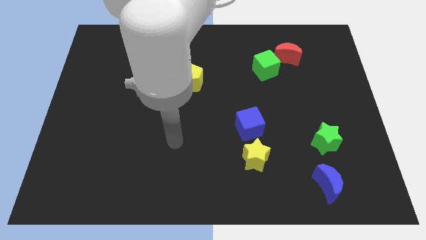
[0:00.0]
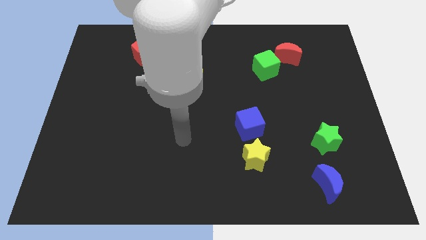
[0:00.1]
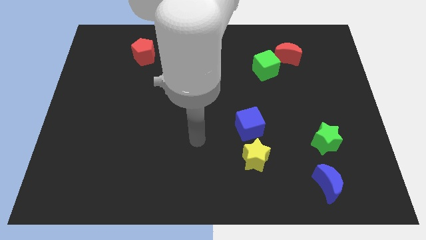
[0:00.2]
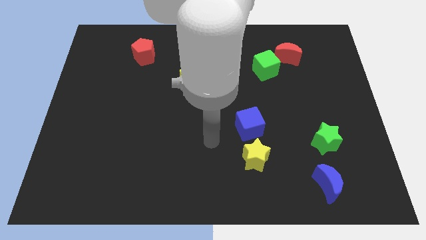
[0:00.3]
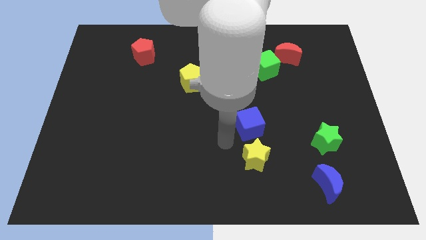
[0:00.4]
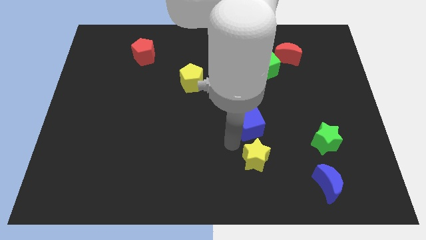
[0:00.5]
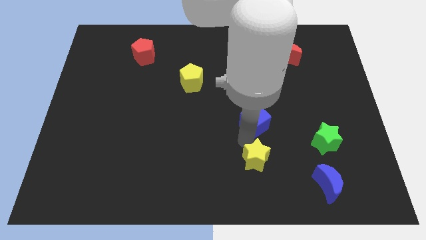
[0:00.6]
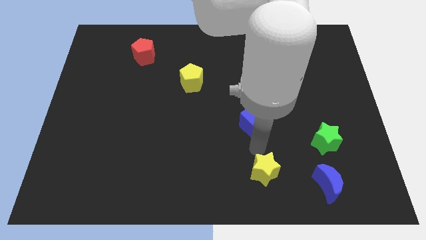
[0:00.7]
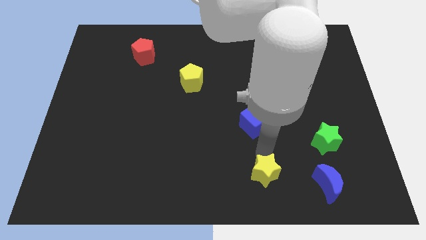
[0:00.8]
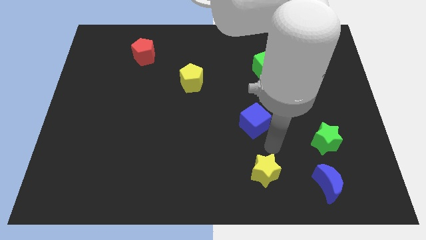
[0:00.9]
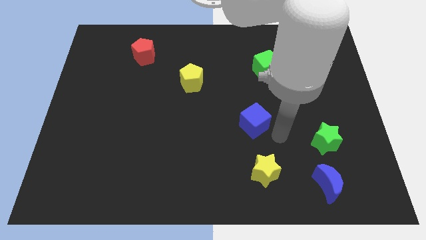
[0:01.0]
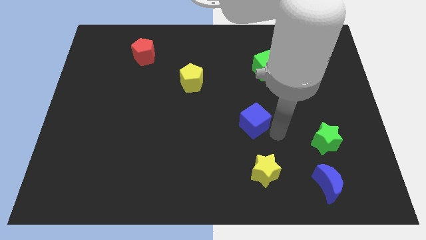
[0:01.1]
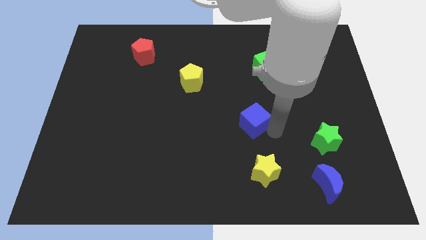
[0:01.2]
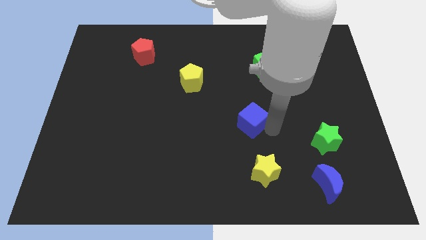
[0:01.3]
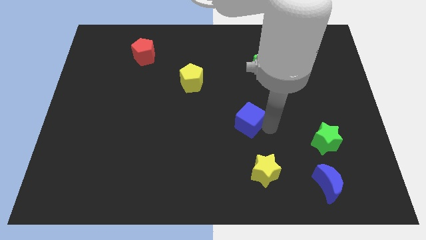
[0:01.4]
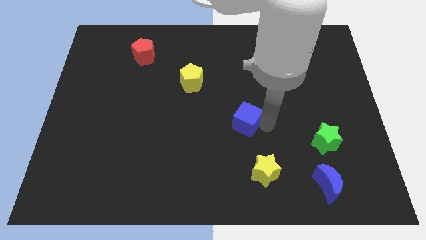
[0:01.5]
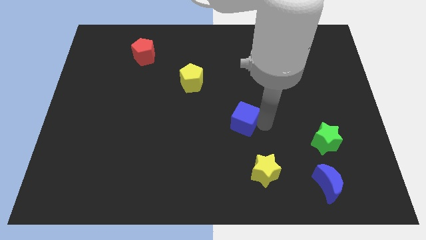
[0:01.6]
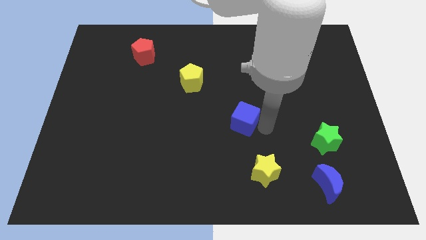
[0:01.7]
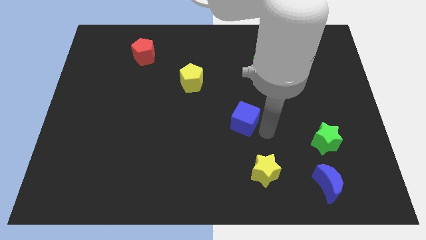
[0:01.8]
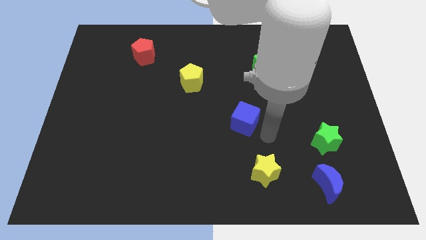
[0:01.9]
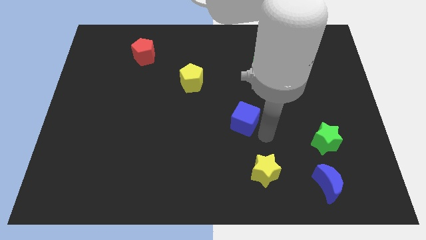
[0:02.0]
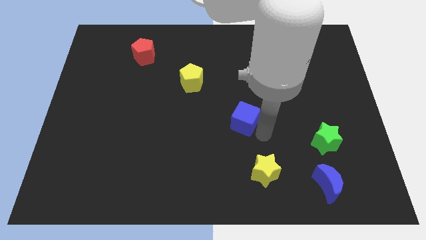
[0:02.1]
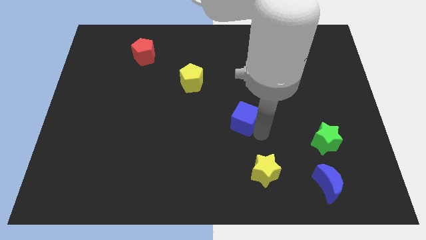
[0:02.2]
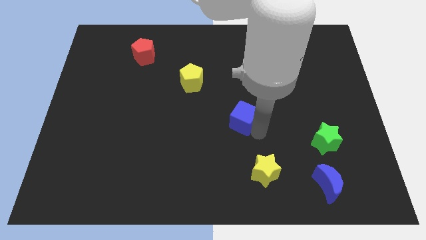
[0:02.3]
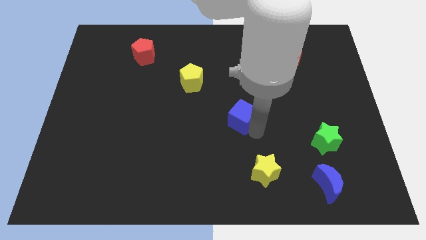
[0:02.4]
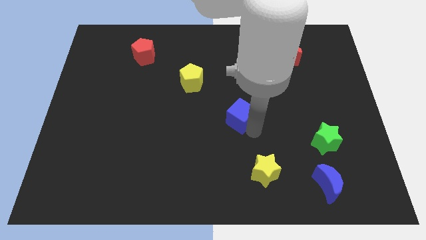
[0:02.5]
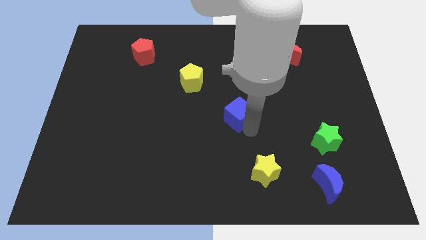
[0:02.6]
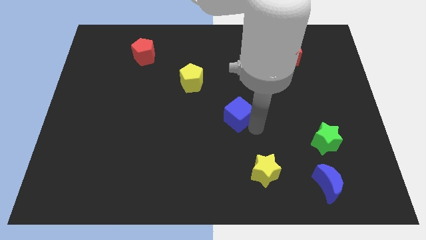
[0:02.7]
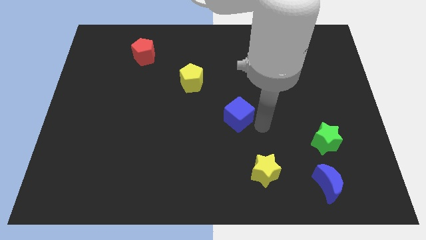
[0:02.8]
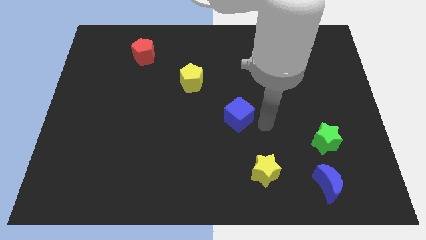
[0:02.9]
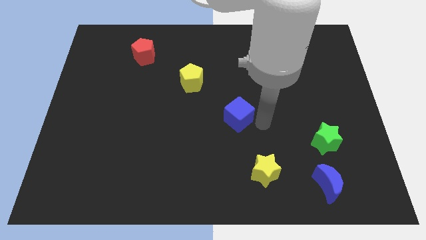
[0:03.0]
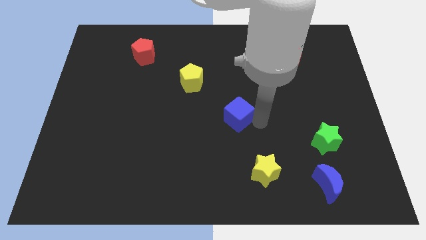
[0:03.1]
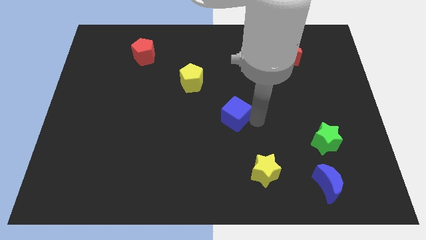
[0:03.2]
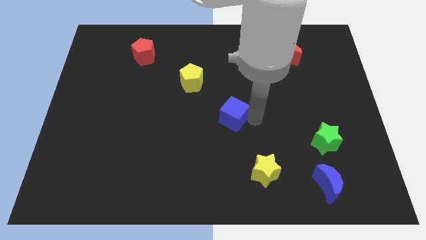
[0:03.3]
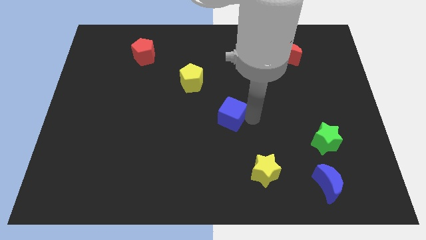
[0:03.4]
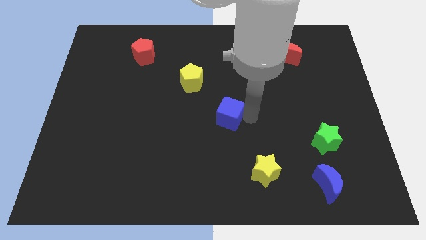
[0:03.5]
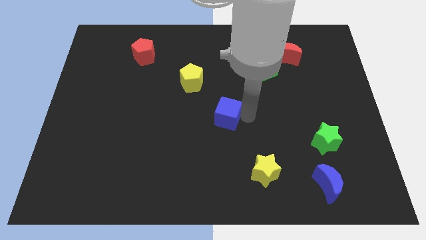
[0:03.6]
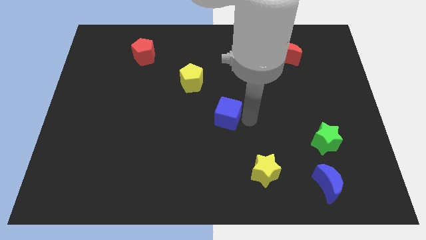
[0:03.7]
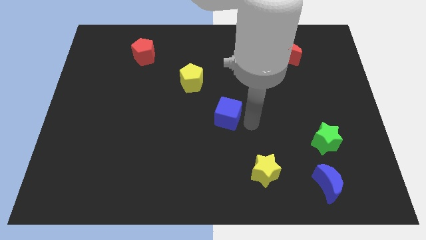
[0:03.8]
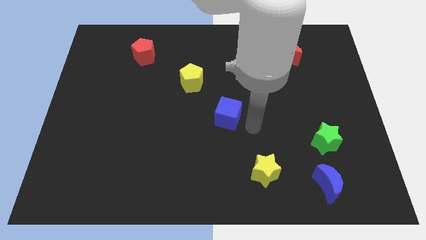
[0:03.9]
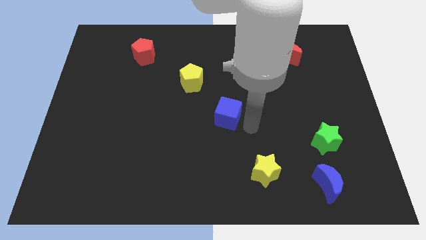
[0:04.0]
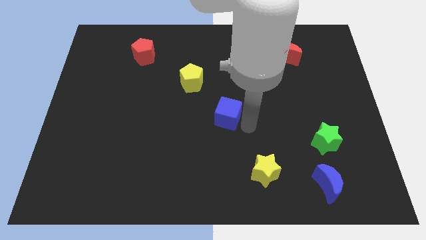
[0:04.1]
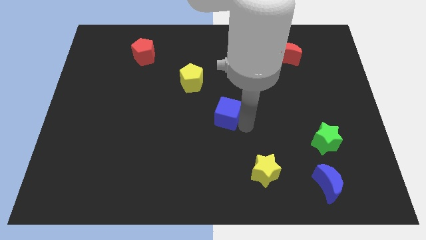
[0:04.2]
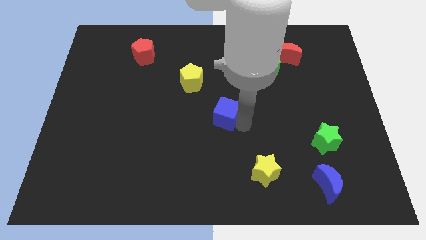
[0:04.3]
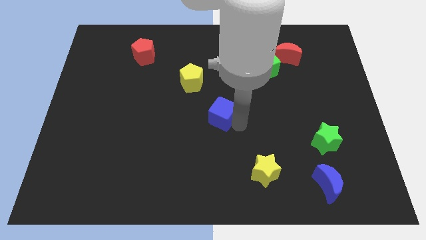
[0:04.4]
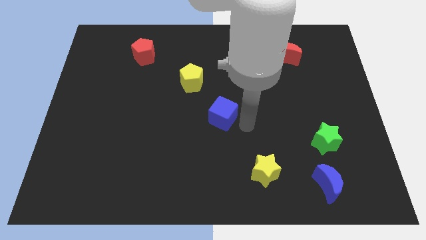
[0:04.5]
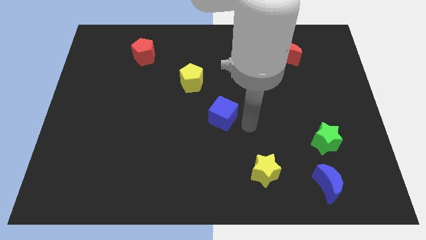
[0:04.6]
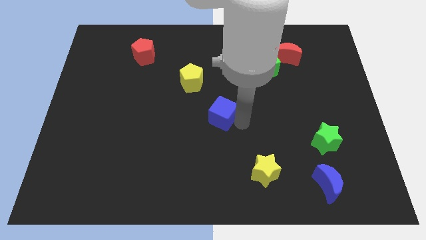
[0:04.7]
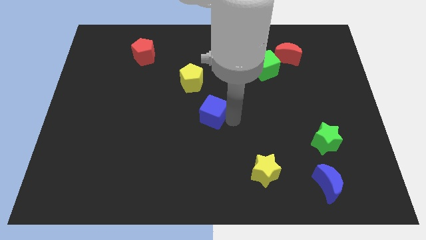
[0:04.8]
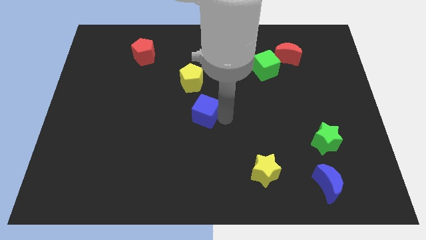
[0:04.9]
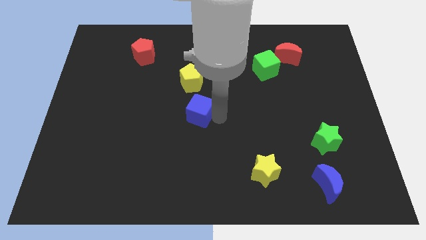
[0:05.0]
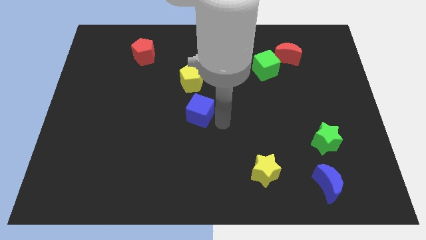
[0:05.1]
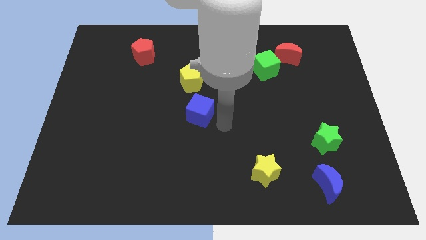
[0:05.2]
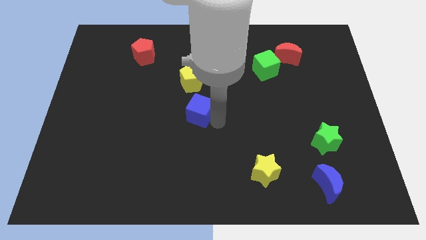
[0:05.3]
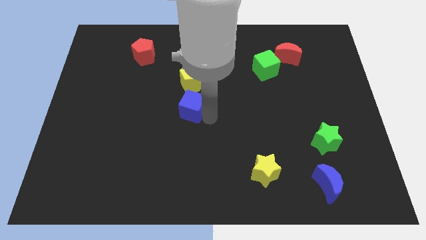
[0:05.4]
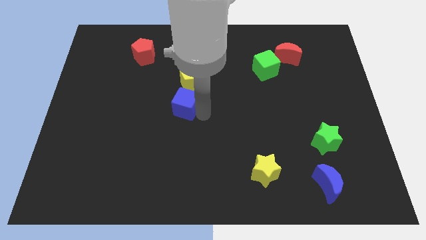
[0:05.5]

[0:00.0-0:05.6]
push the blue cube to the bottom left side of the yellow pentagon

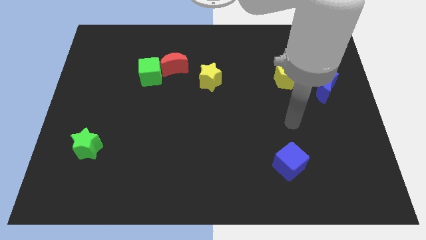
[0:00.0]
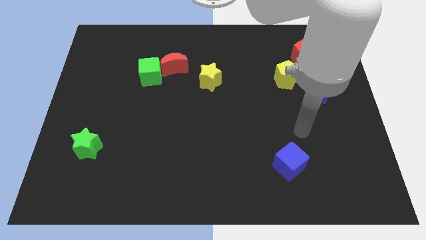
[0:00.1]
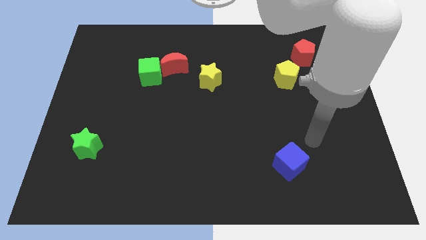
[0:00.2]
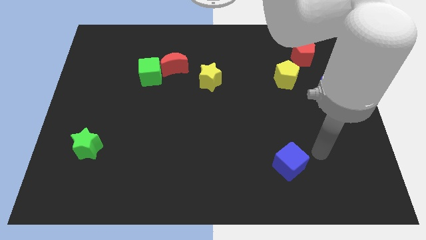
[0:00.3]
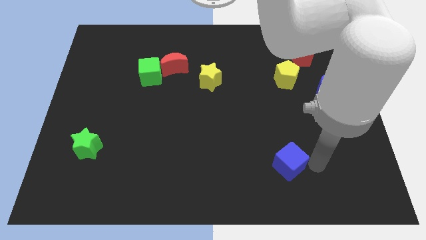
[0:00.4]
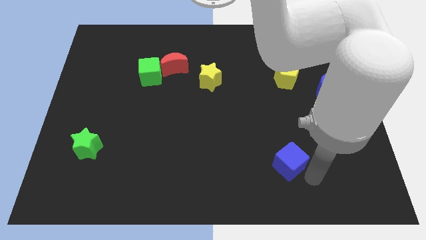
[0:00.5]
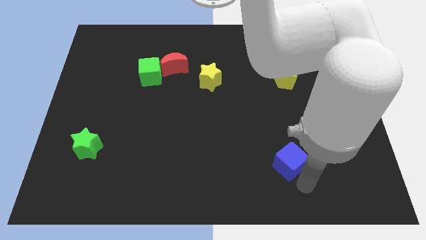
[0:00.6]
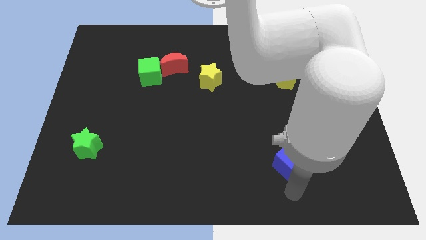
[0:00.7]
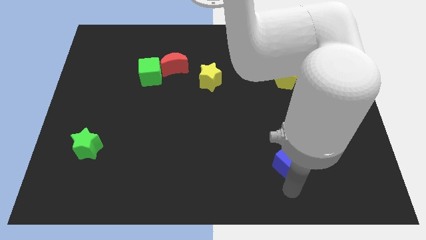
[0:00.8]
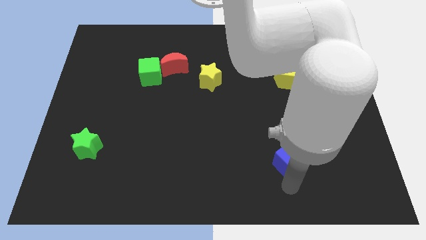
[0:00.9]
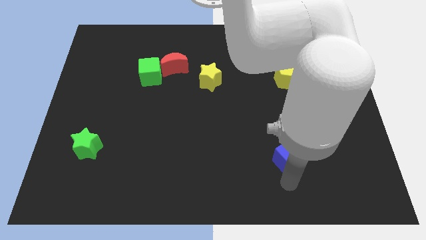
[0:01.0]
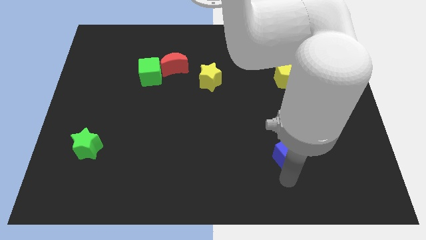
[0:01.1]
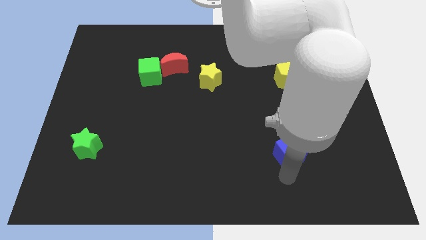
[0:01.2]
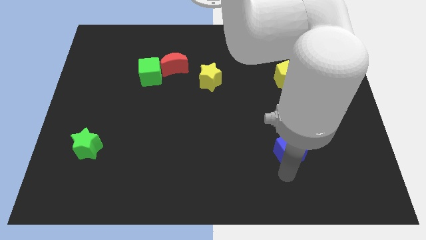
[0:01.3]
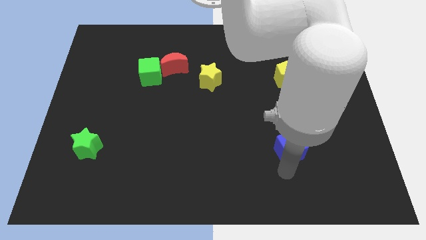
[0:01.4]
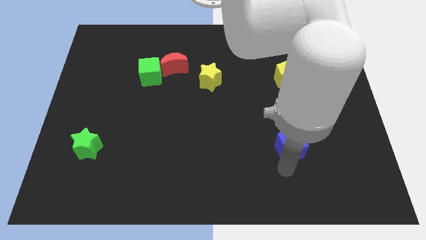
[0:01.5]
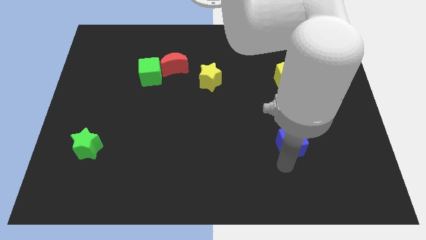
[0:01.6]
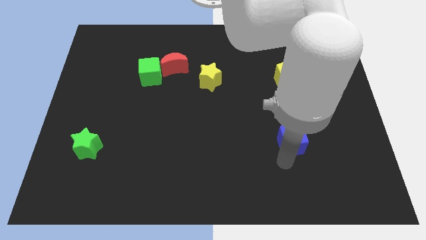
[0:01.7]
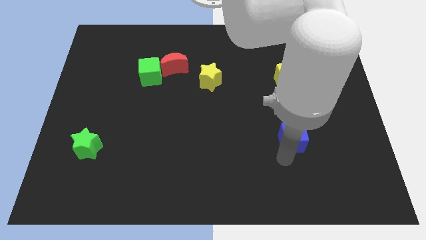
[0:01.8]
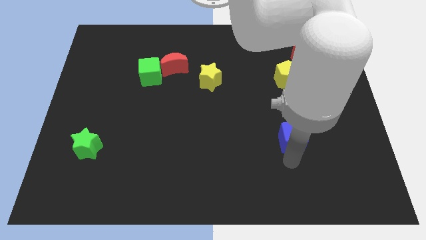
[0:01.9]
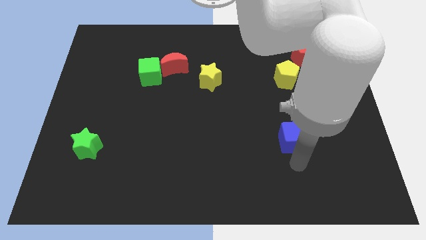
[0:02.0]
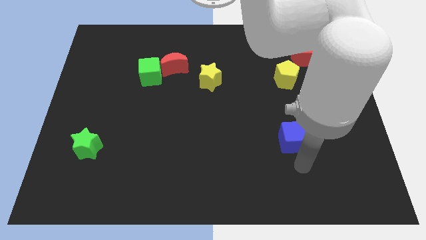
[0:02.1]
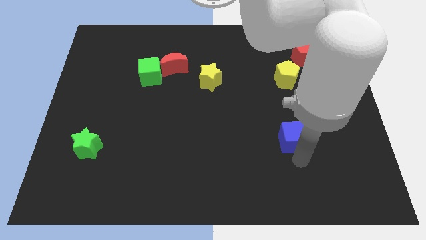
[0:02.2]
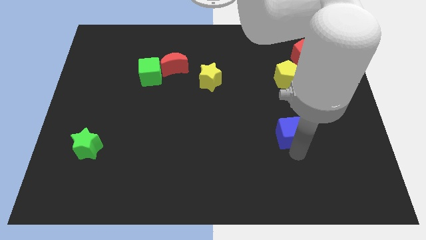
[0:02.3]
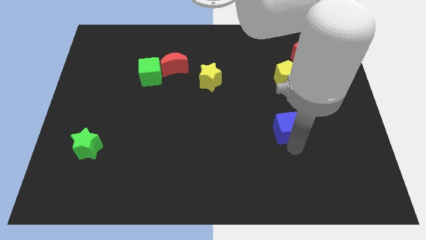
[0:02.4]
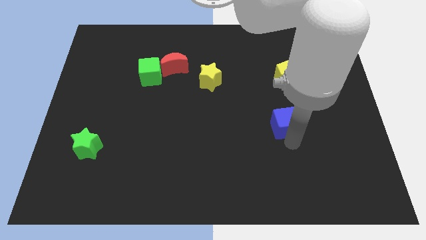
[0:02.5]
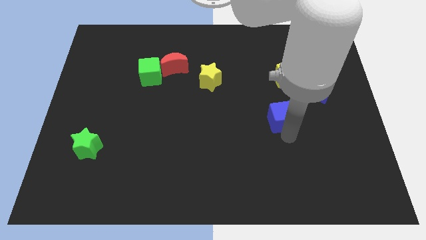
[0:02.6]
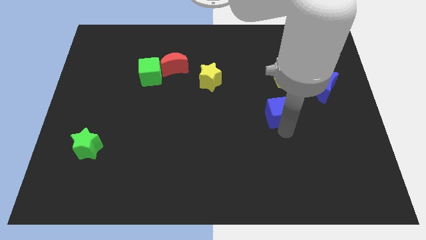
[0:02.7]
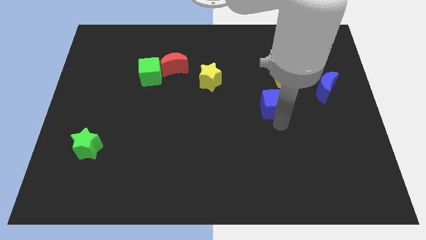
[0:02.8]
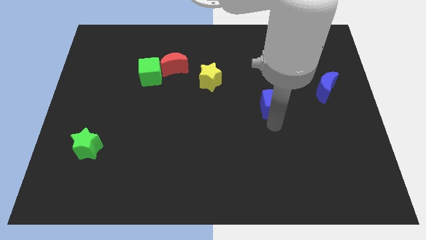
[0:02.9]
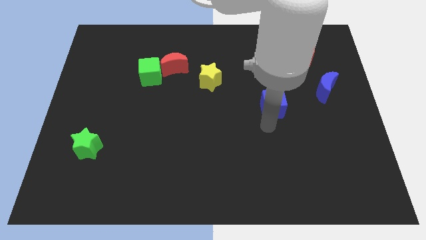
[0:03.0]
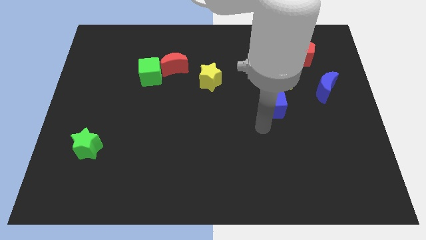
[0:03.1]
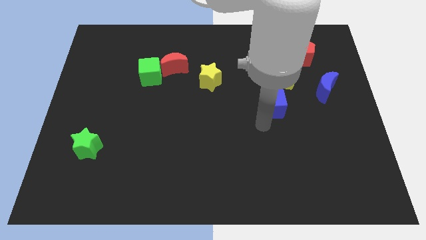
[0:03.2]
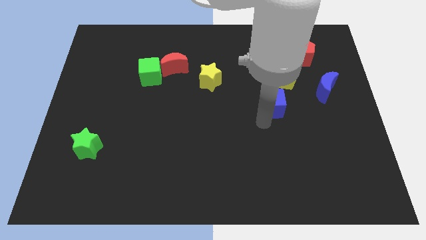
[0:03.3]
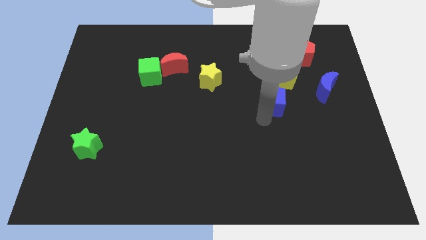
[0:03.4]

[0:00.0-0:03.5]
move the blue cube just left of the blue moon
